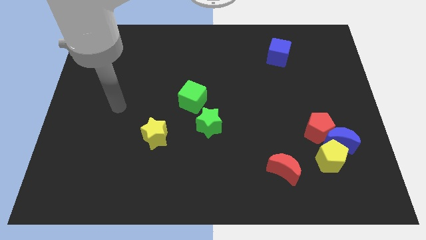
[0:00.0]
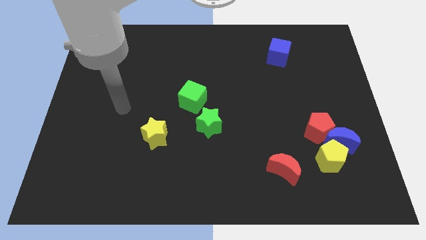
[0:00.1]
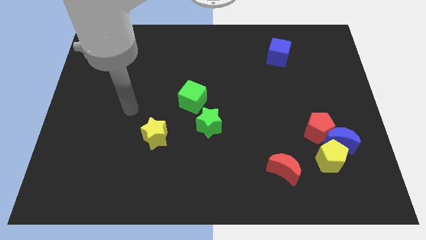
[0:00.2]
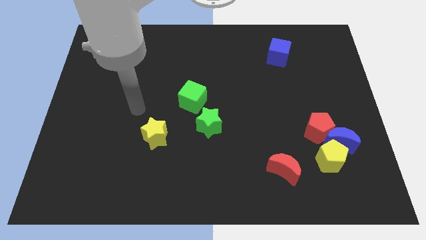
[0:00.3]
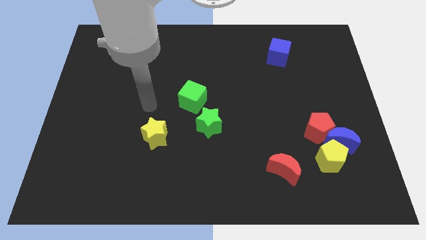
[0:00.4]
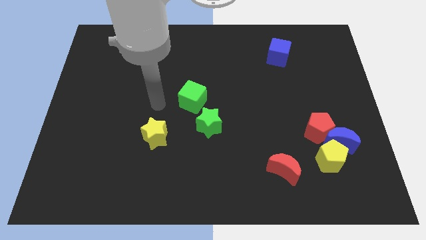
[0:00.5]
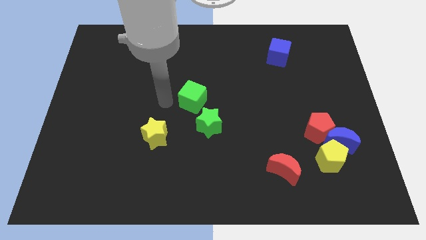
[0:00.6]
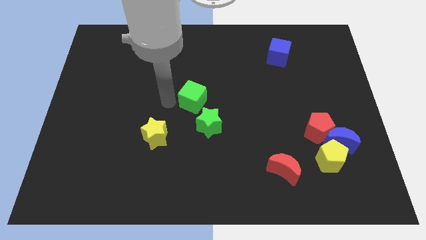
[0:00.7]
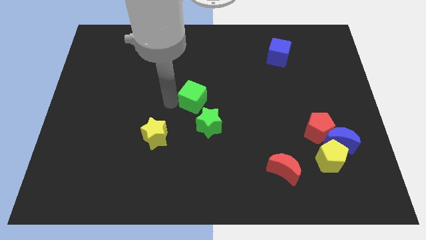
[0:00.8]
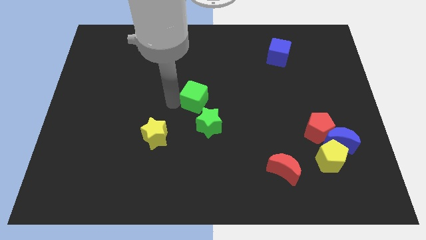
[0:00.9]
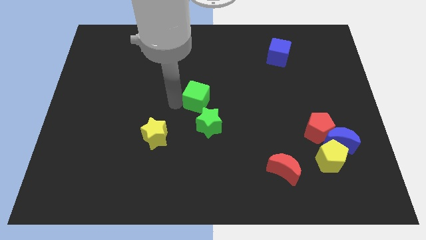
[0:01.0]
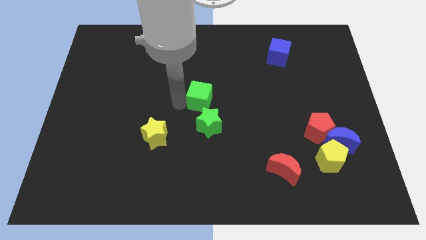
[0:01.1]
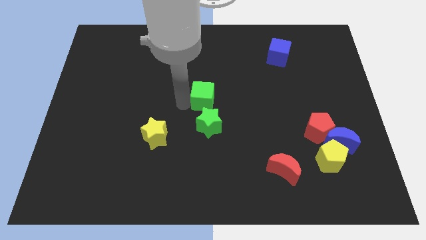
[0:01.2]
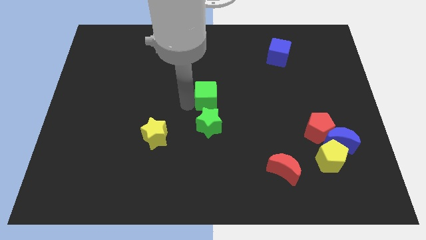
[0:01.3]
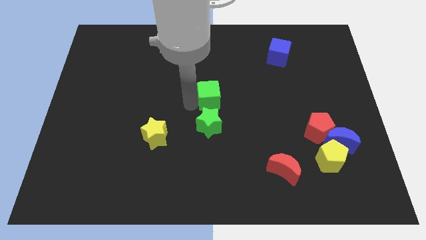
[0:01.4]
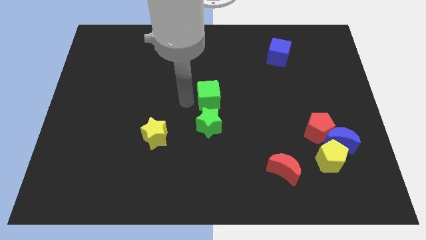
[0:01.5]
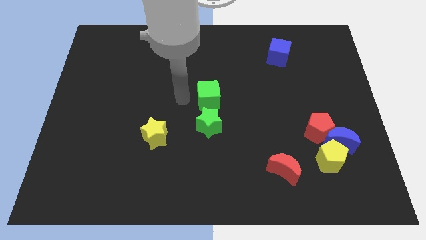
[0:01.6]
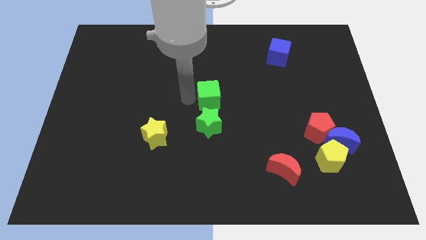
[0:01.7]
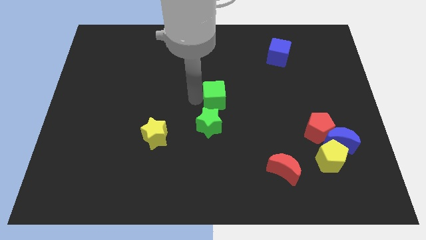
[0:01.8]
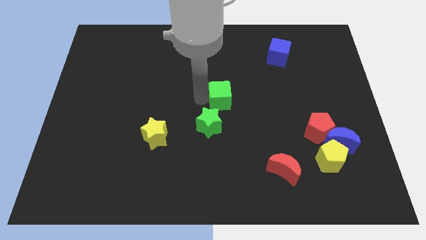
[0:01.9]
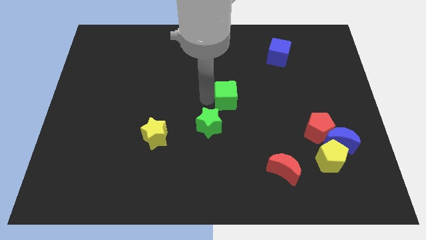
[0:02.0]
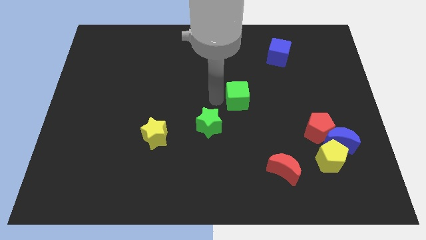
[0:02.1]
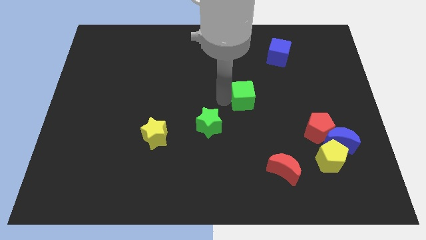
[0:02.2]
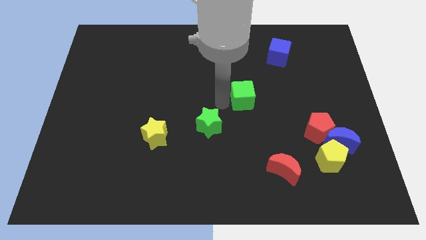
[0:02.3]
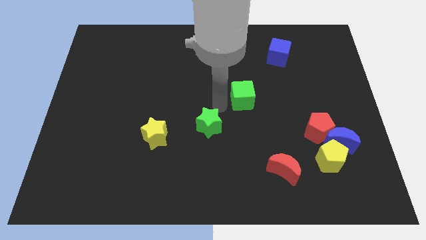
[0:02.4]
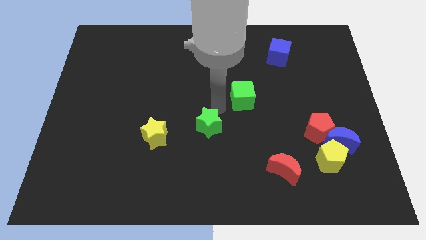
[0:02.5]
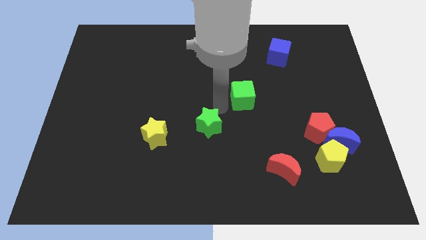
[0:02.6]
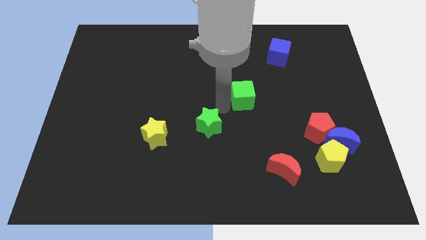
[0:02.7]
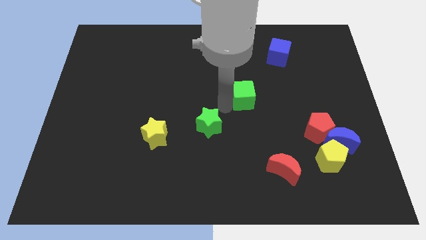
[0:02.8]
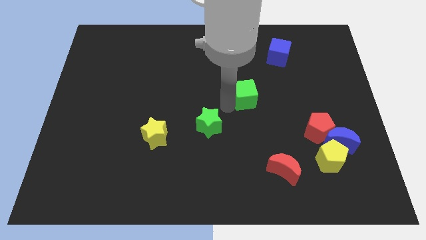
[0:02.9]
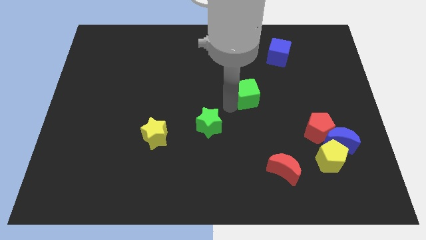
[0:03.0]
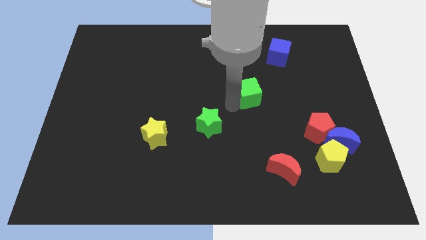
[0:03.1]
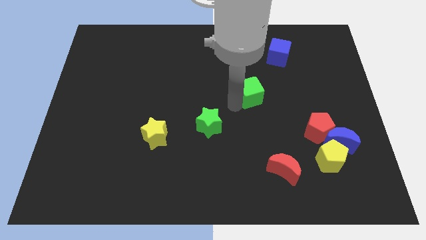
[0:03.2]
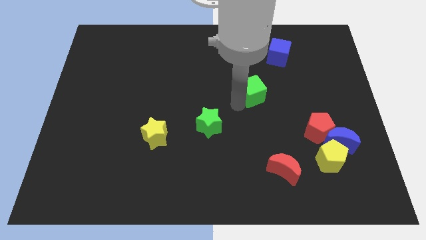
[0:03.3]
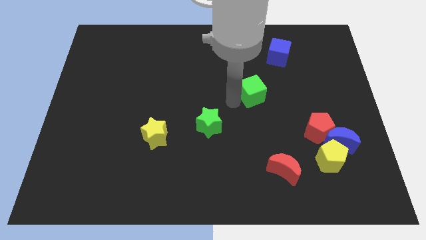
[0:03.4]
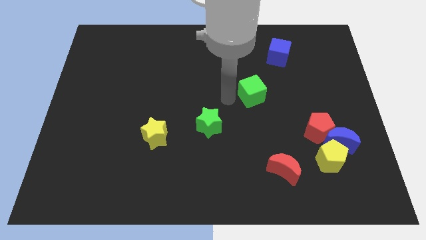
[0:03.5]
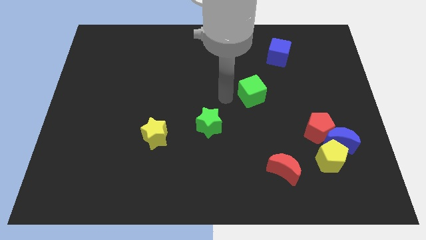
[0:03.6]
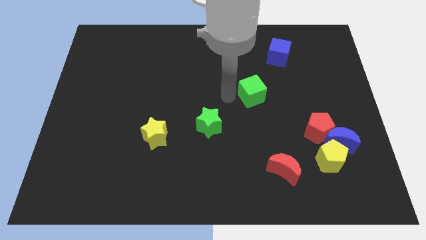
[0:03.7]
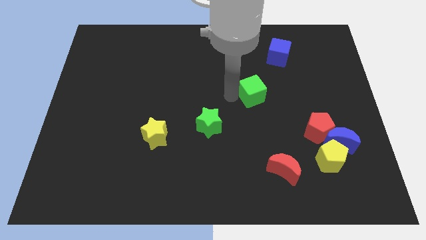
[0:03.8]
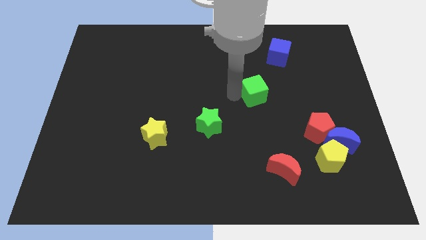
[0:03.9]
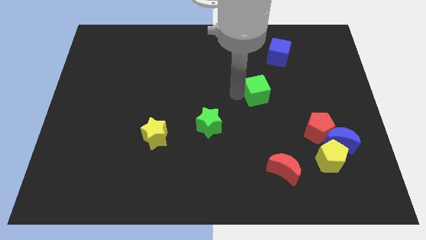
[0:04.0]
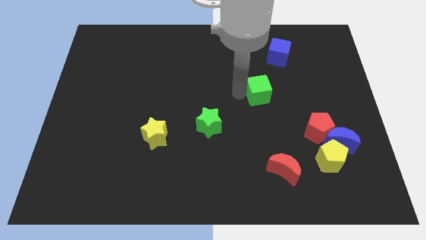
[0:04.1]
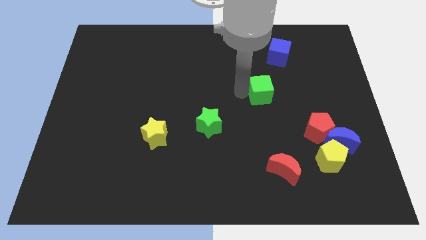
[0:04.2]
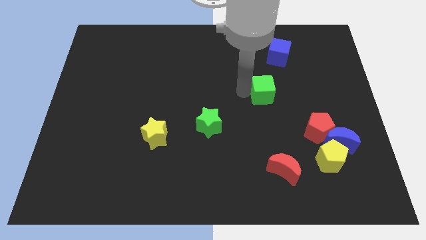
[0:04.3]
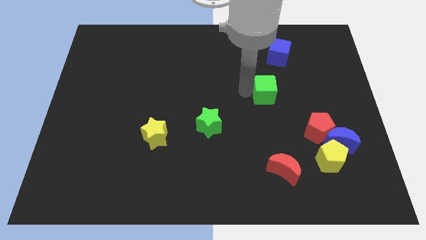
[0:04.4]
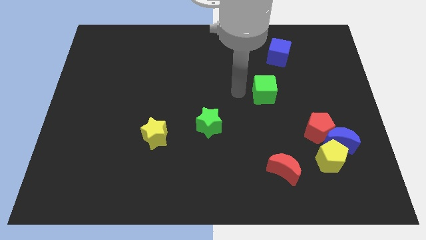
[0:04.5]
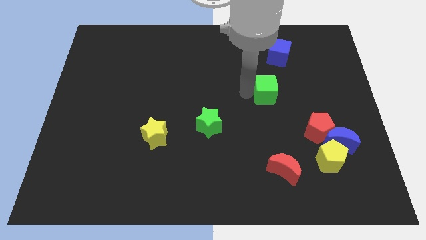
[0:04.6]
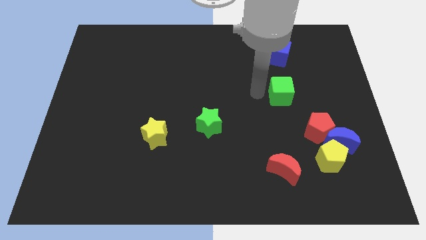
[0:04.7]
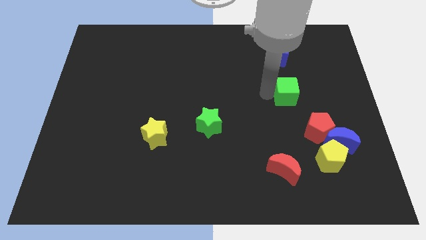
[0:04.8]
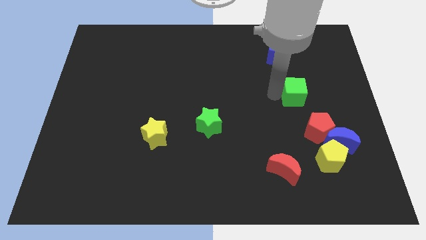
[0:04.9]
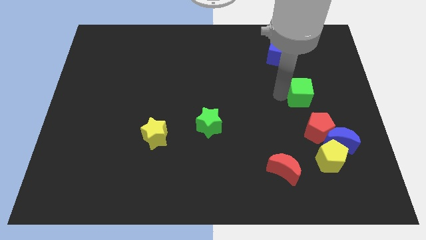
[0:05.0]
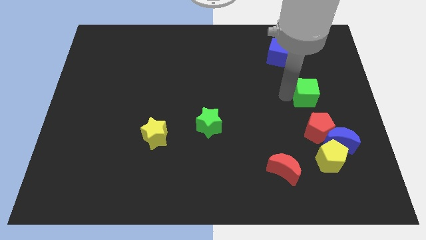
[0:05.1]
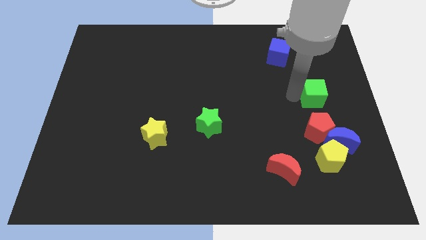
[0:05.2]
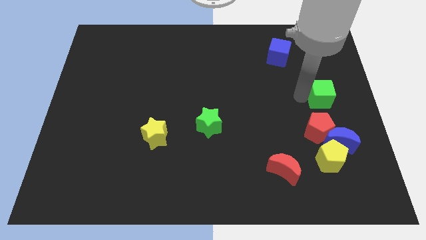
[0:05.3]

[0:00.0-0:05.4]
move the green cube to the right side of the board

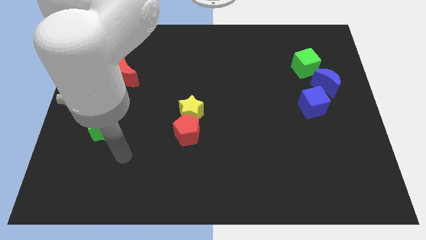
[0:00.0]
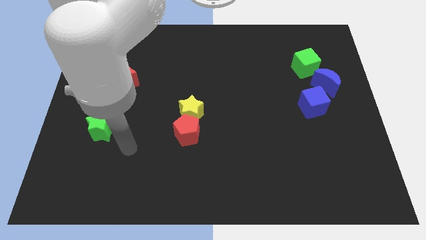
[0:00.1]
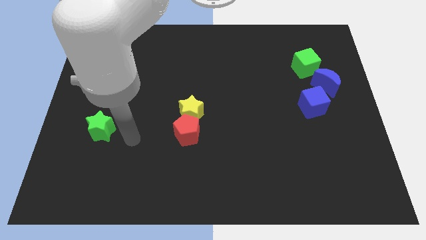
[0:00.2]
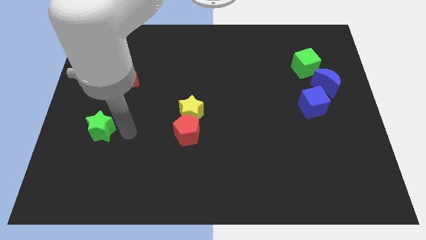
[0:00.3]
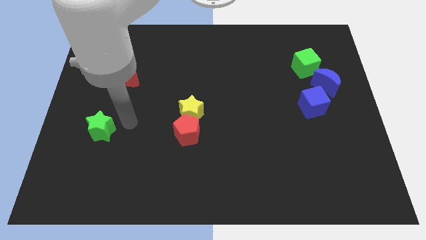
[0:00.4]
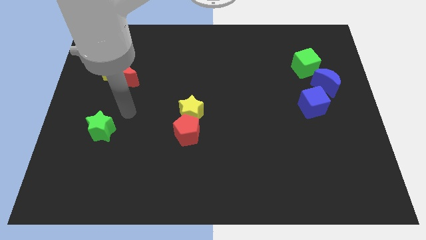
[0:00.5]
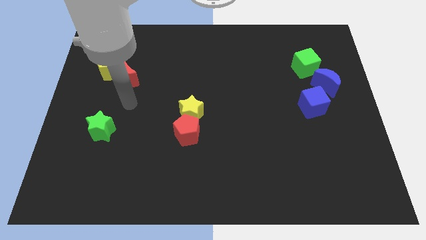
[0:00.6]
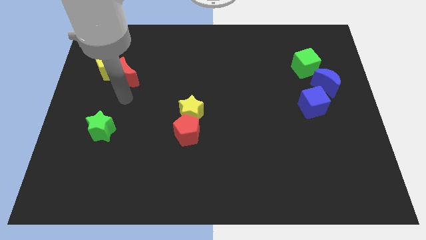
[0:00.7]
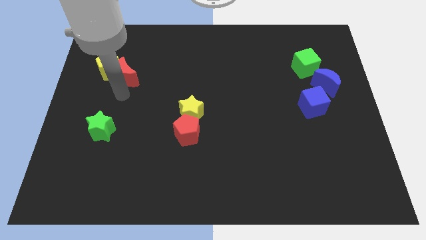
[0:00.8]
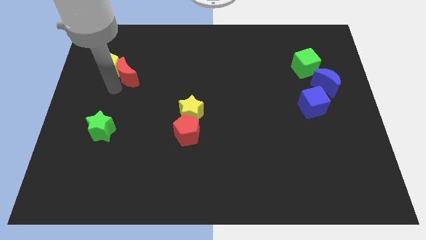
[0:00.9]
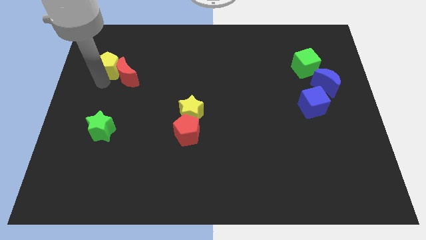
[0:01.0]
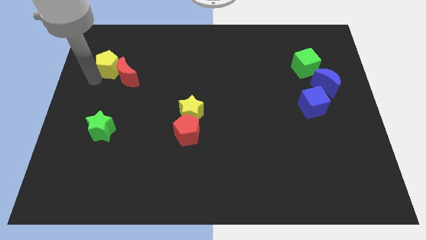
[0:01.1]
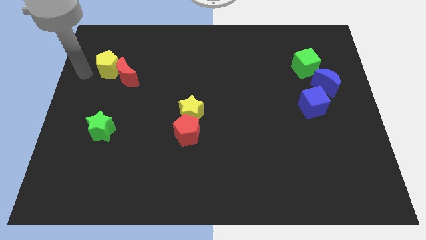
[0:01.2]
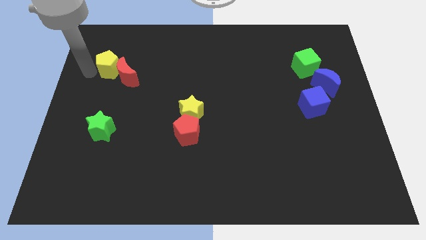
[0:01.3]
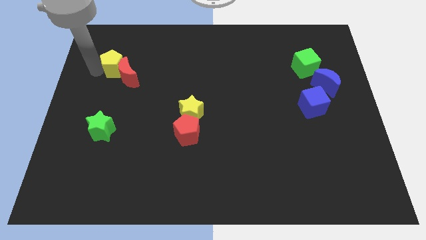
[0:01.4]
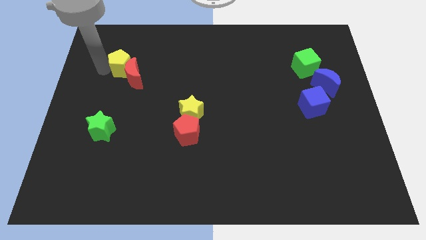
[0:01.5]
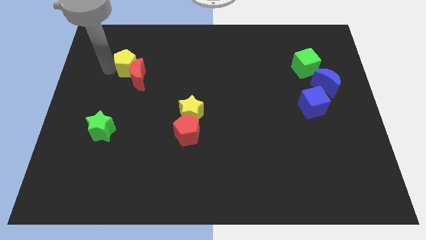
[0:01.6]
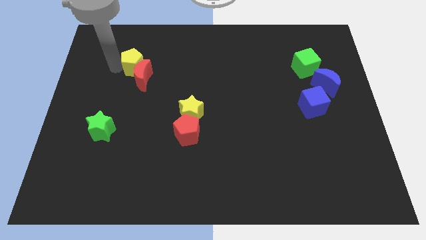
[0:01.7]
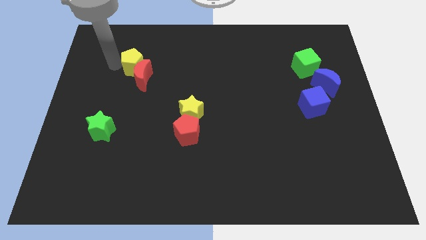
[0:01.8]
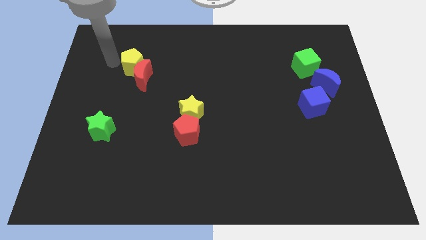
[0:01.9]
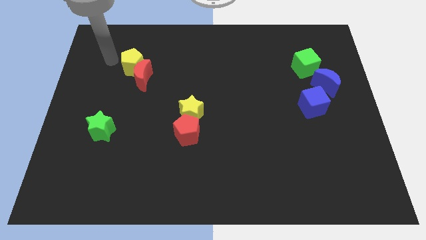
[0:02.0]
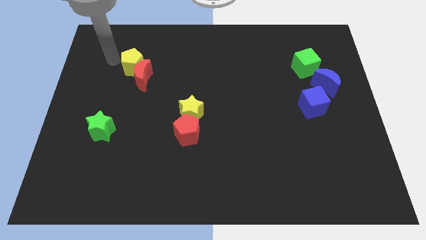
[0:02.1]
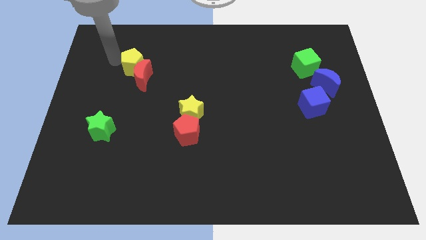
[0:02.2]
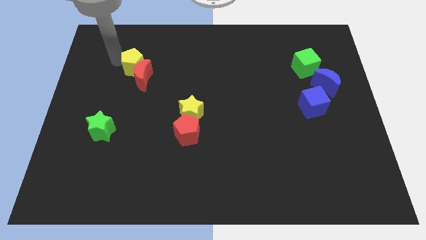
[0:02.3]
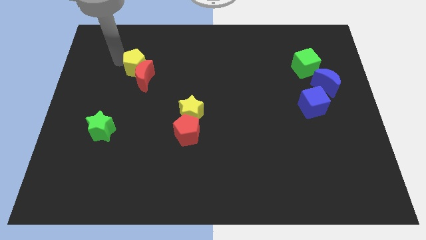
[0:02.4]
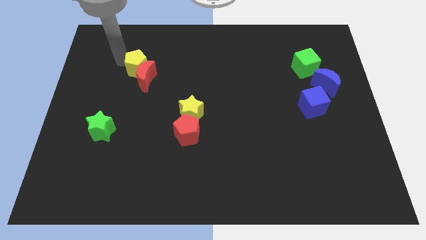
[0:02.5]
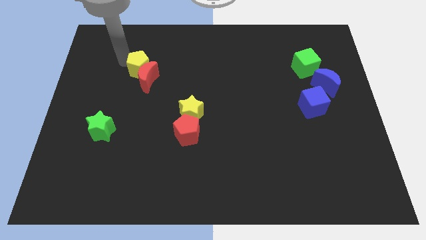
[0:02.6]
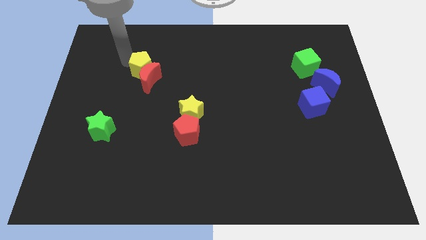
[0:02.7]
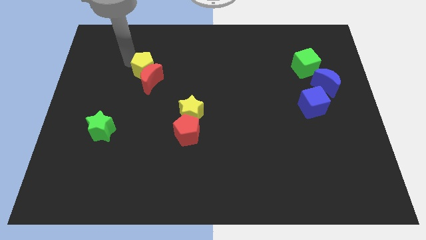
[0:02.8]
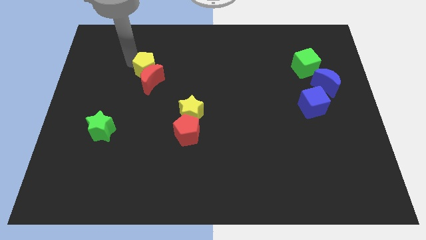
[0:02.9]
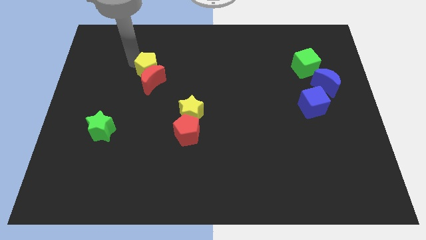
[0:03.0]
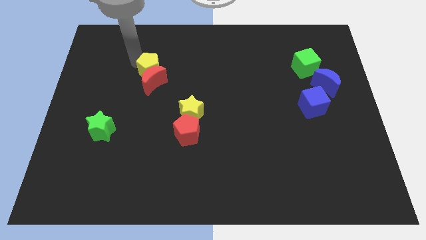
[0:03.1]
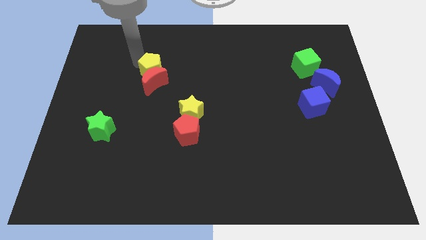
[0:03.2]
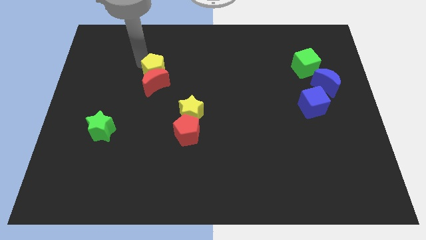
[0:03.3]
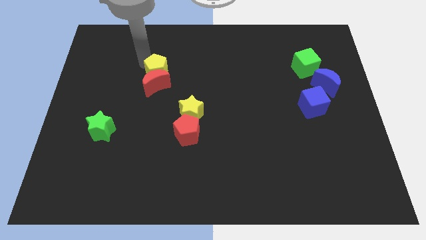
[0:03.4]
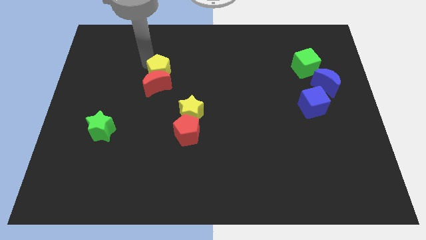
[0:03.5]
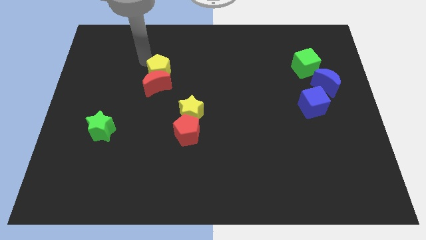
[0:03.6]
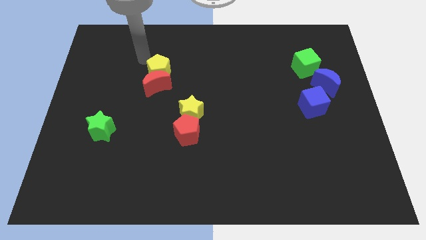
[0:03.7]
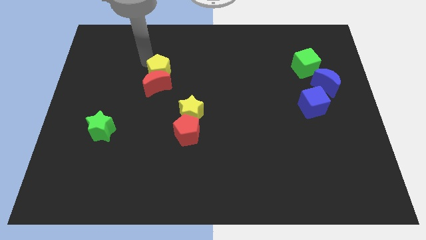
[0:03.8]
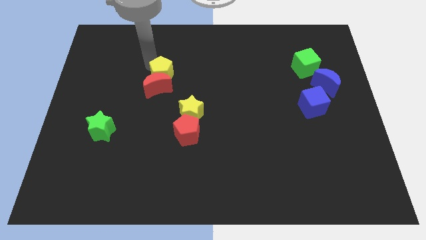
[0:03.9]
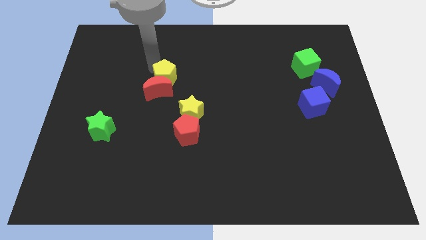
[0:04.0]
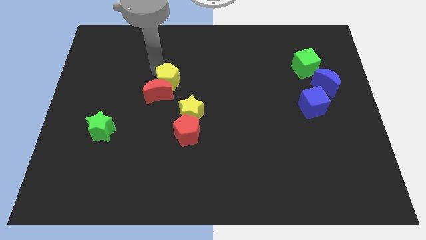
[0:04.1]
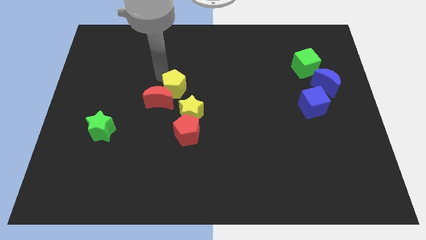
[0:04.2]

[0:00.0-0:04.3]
slide the yellow pentagon to the middle of the board
